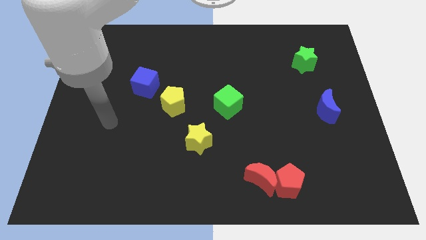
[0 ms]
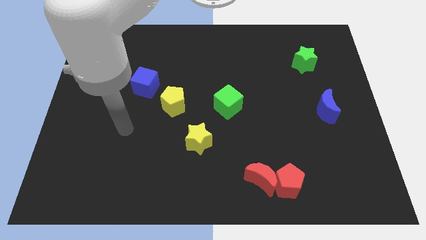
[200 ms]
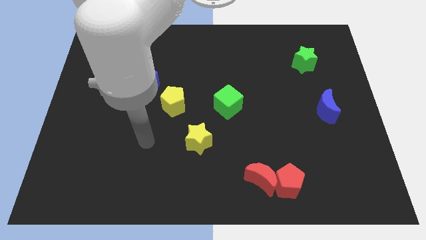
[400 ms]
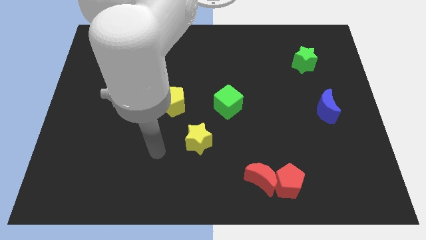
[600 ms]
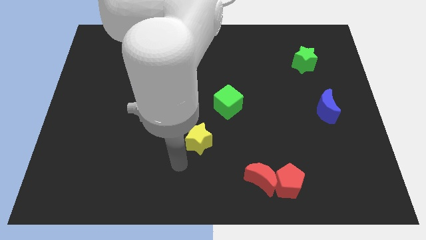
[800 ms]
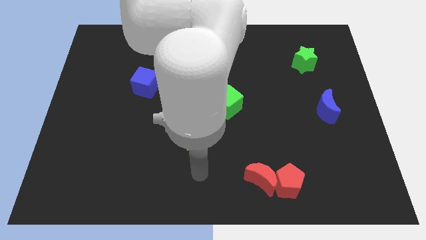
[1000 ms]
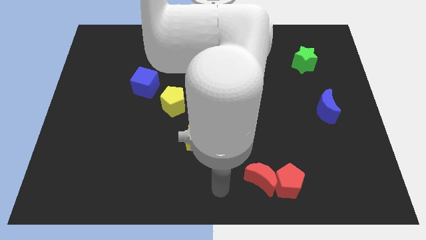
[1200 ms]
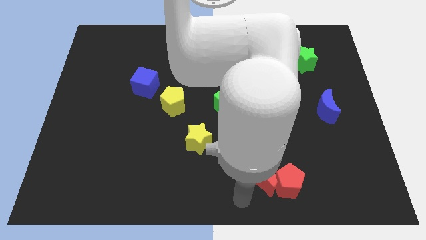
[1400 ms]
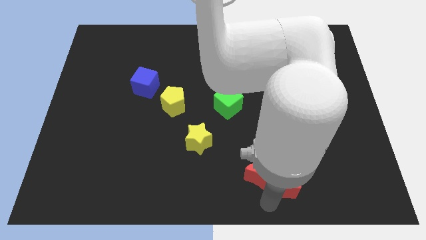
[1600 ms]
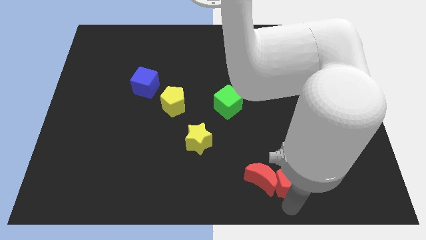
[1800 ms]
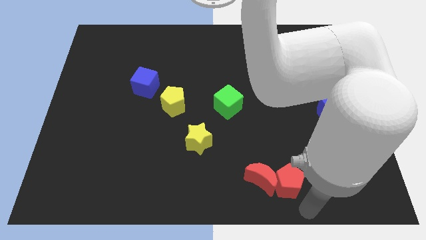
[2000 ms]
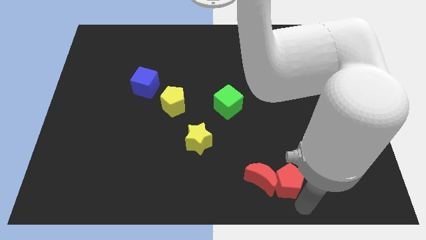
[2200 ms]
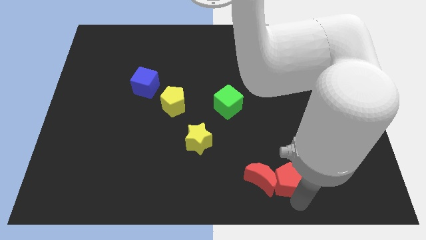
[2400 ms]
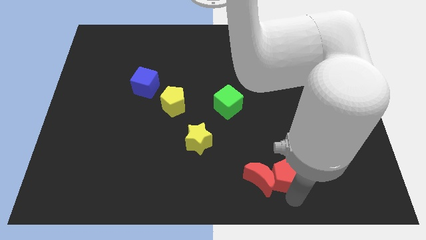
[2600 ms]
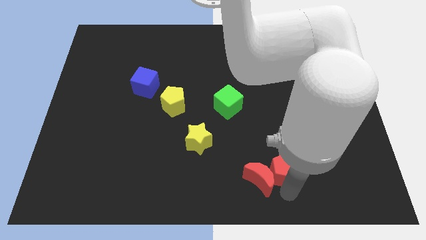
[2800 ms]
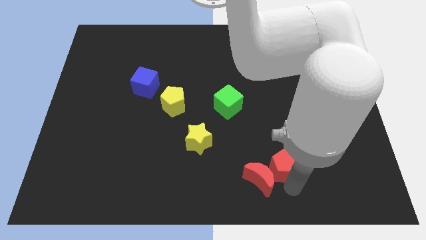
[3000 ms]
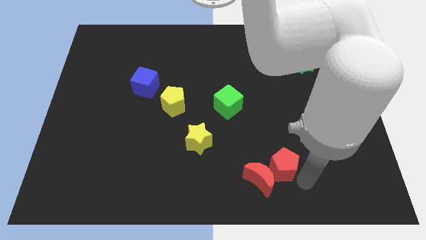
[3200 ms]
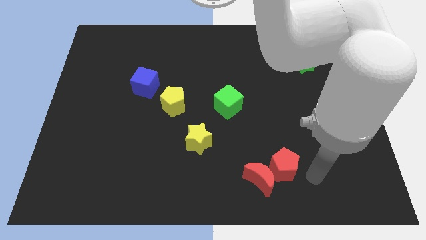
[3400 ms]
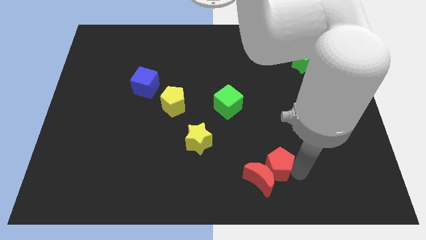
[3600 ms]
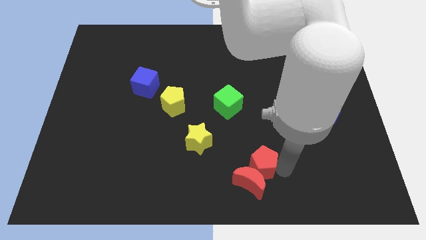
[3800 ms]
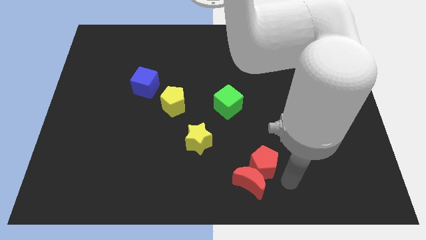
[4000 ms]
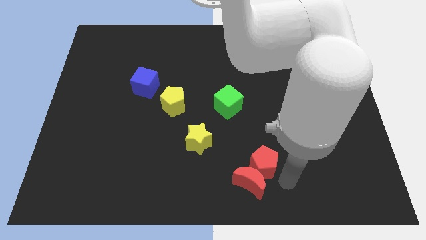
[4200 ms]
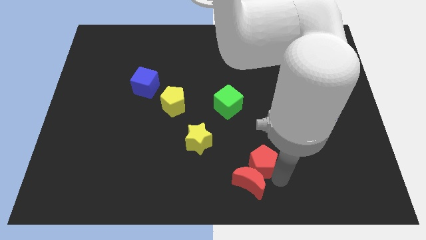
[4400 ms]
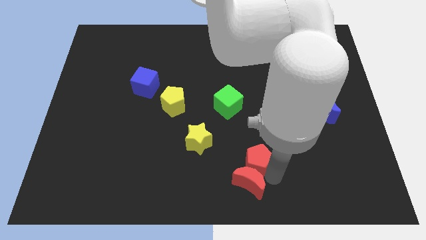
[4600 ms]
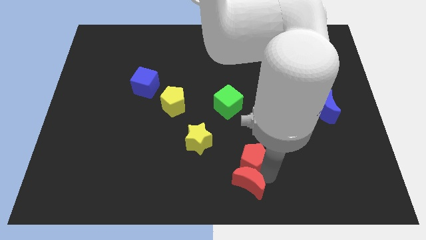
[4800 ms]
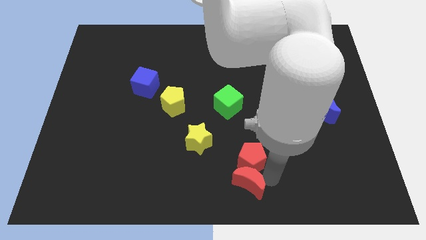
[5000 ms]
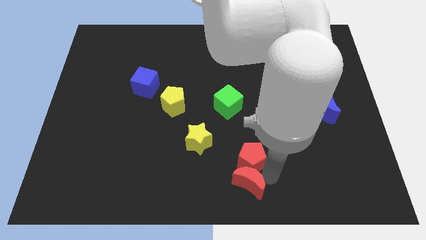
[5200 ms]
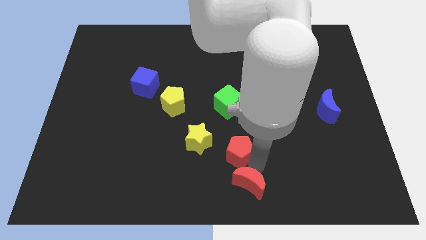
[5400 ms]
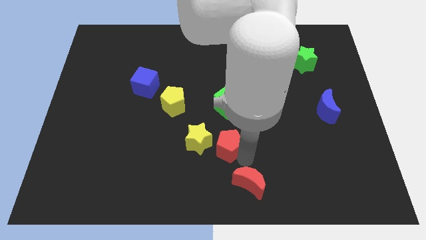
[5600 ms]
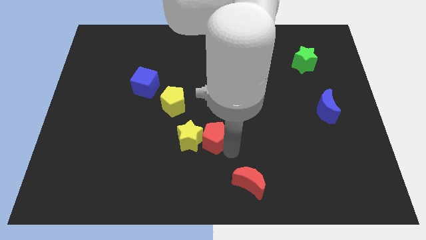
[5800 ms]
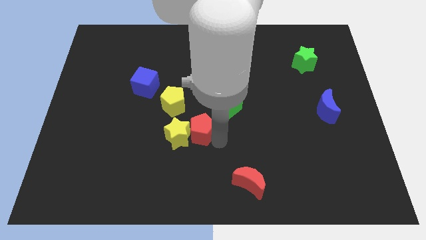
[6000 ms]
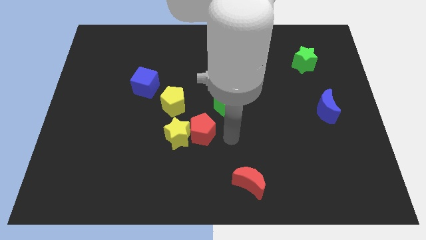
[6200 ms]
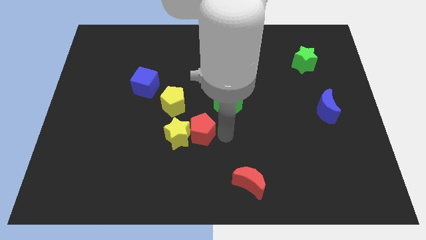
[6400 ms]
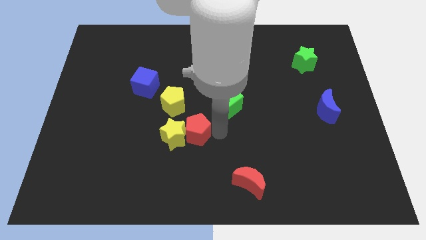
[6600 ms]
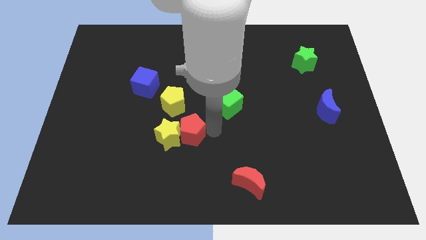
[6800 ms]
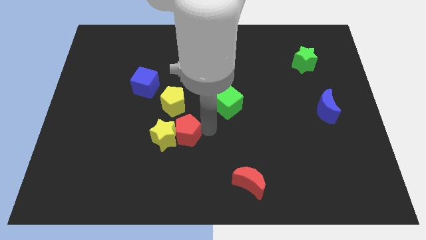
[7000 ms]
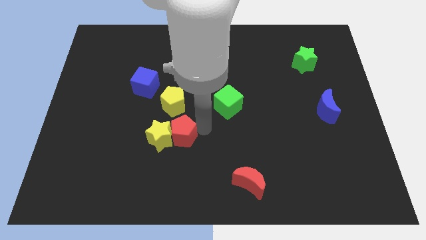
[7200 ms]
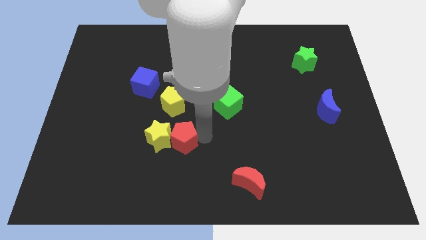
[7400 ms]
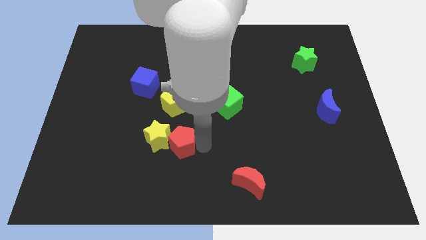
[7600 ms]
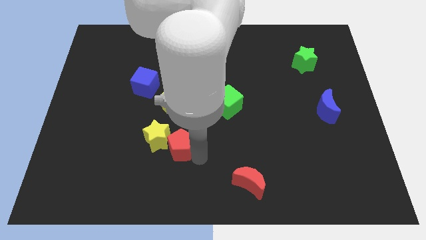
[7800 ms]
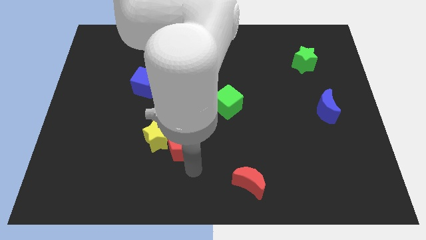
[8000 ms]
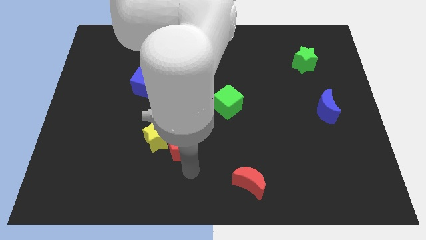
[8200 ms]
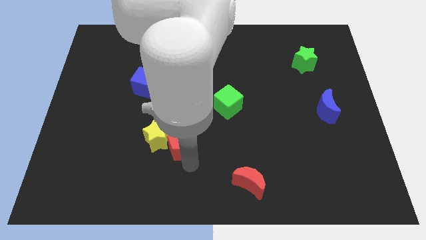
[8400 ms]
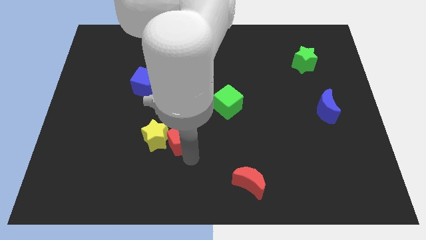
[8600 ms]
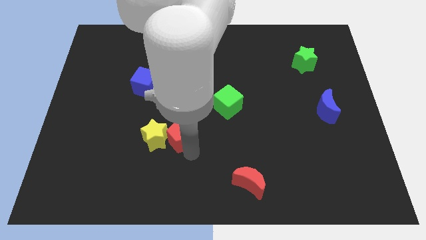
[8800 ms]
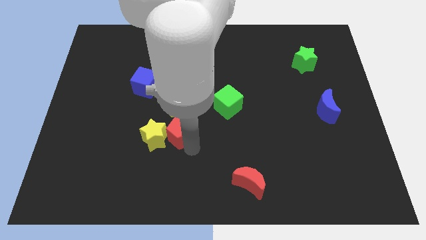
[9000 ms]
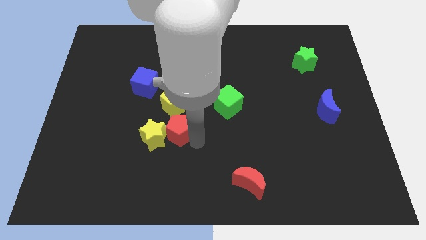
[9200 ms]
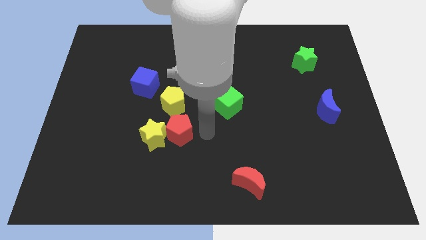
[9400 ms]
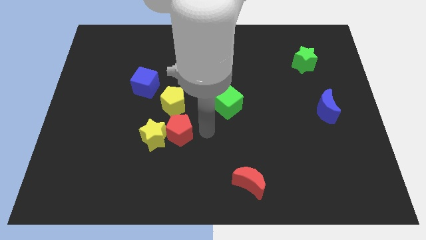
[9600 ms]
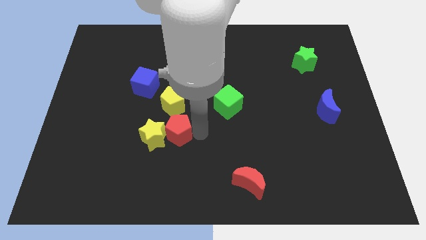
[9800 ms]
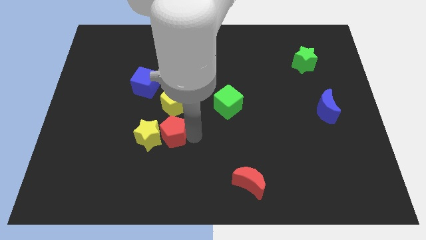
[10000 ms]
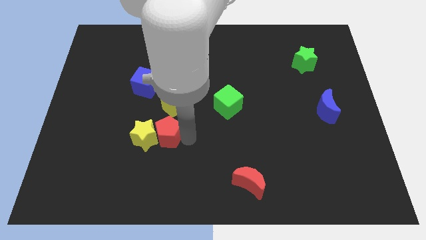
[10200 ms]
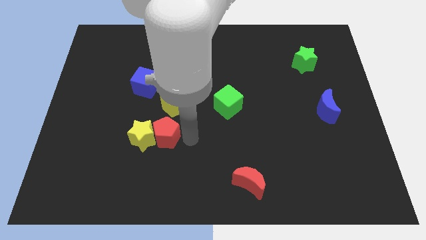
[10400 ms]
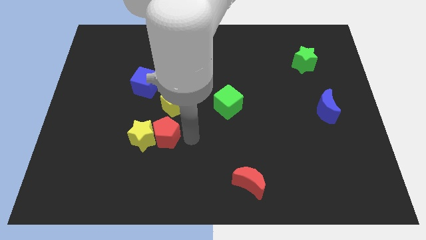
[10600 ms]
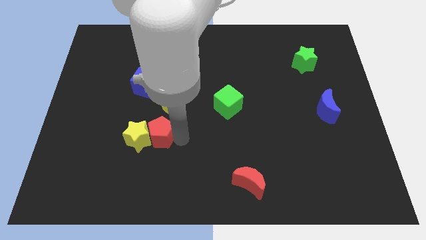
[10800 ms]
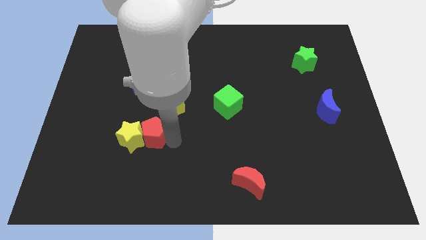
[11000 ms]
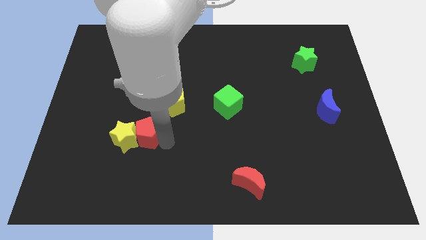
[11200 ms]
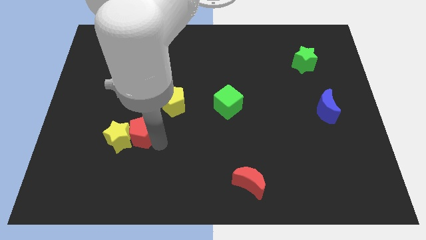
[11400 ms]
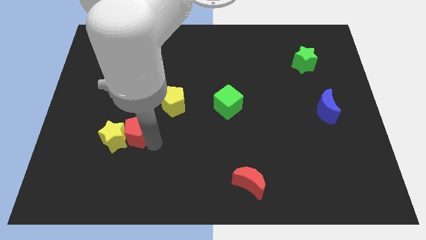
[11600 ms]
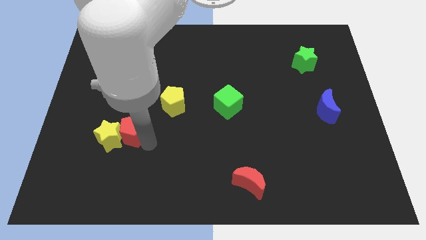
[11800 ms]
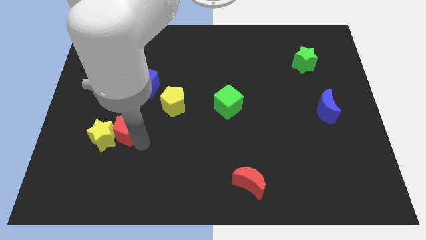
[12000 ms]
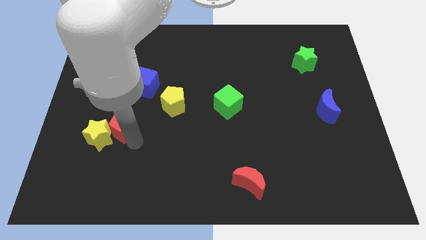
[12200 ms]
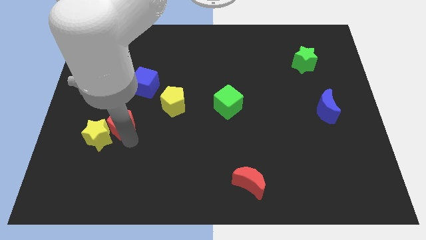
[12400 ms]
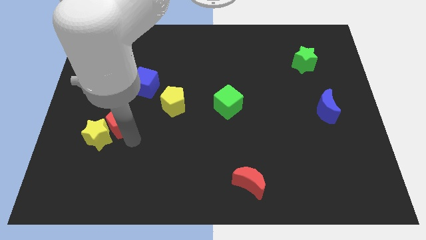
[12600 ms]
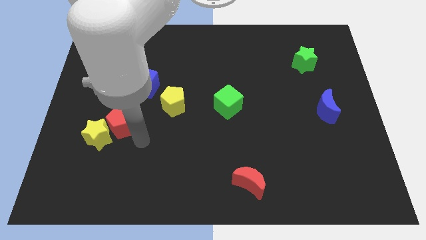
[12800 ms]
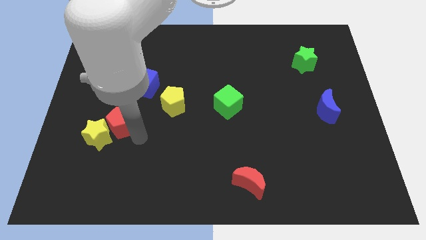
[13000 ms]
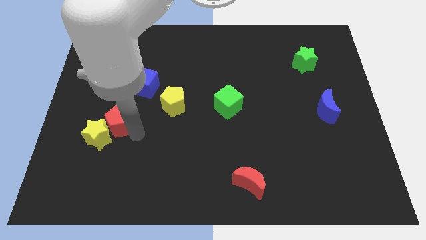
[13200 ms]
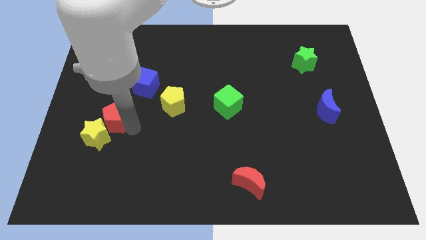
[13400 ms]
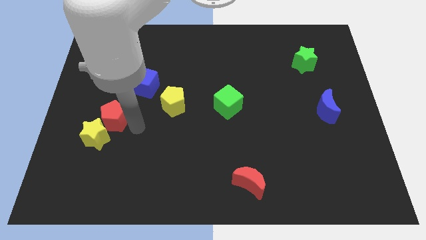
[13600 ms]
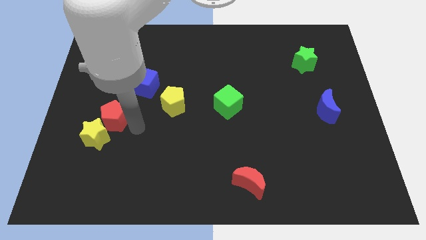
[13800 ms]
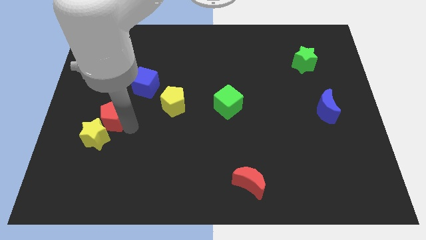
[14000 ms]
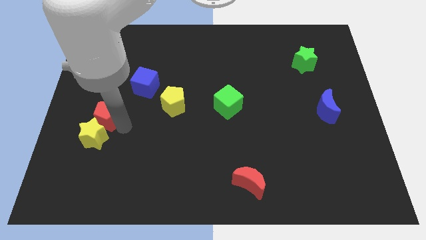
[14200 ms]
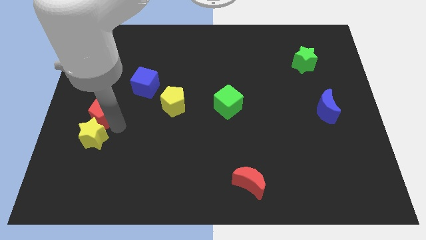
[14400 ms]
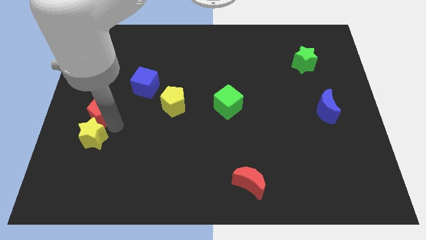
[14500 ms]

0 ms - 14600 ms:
slide the red pentagon to the left side of the board
